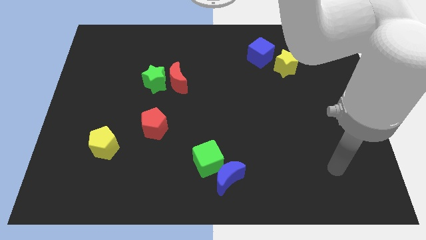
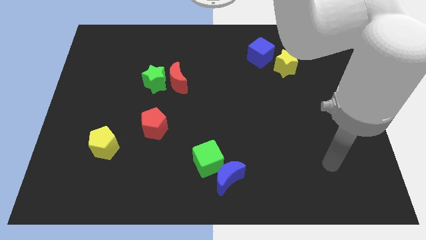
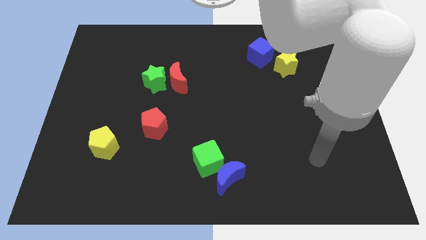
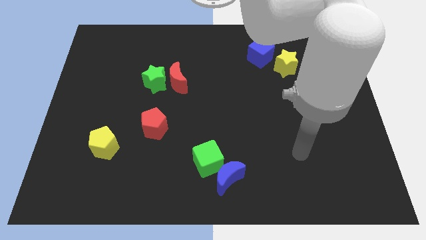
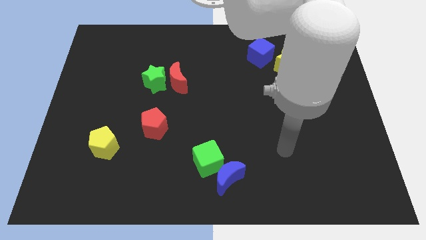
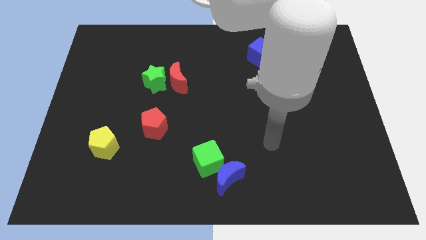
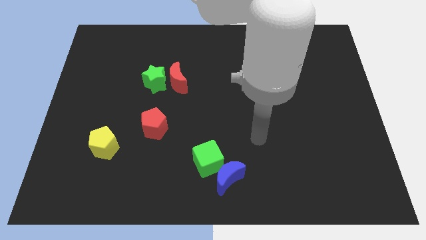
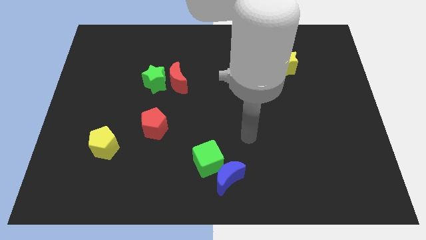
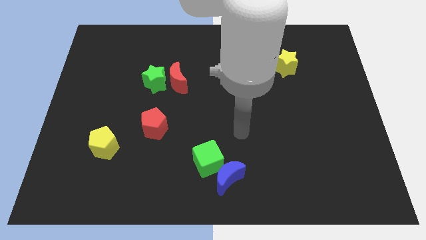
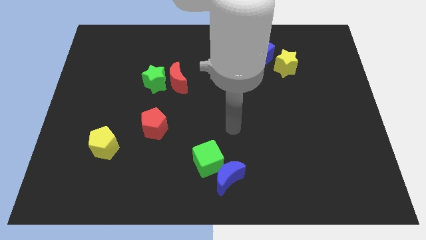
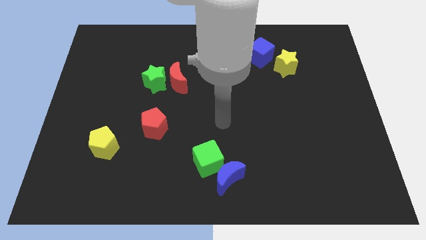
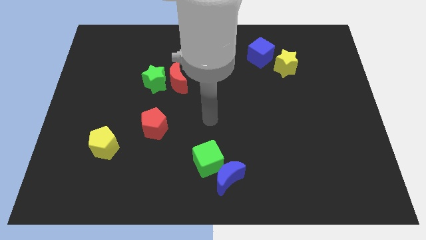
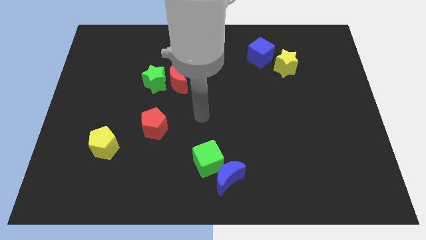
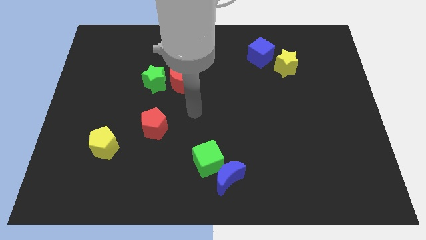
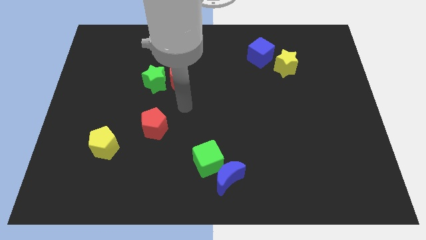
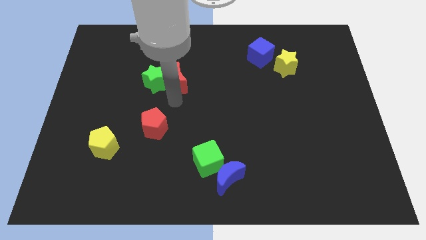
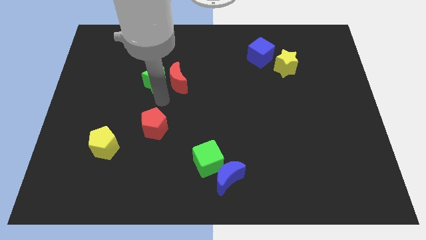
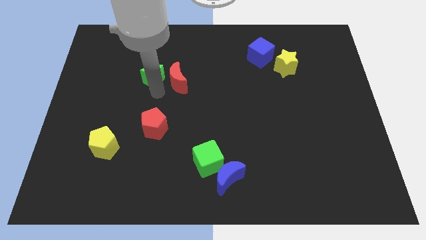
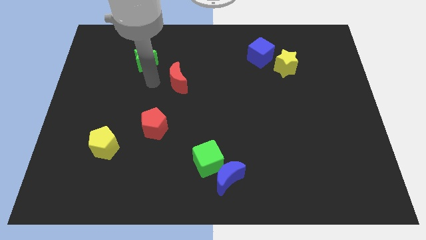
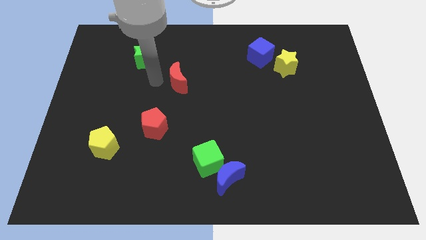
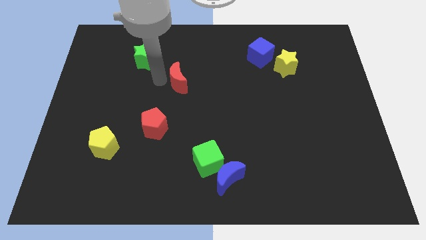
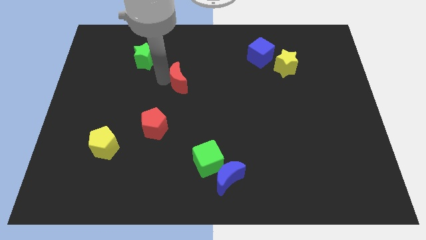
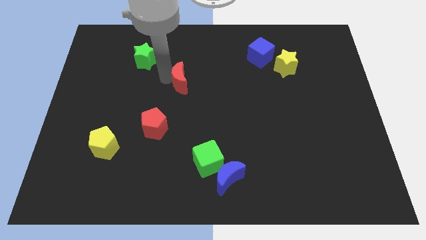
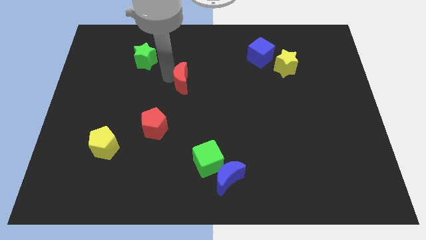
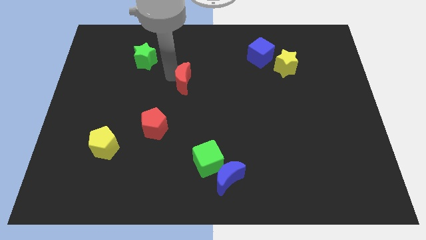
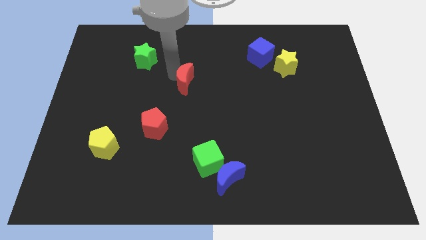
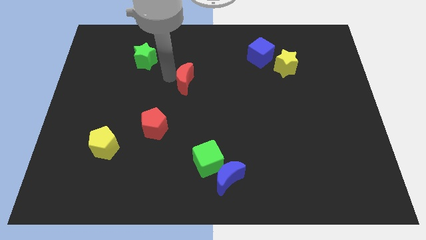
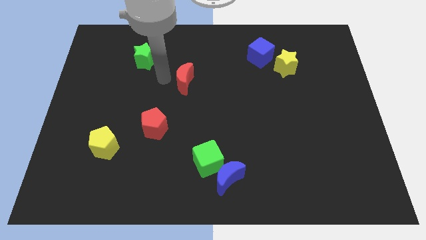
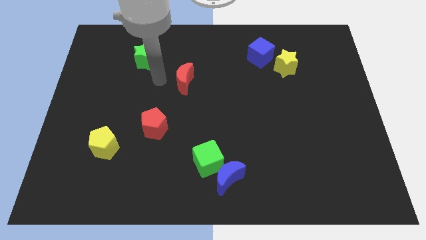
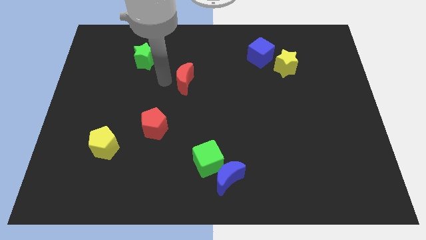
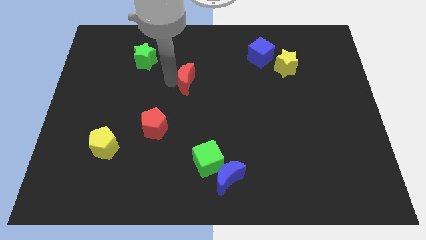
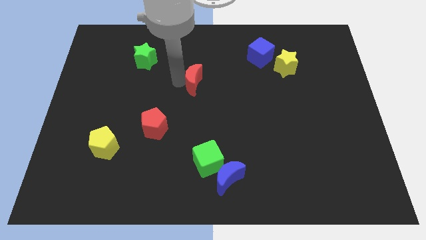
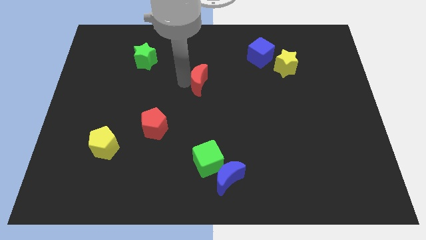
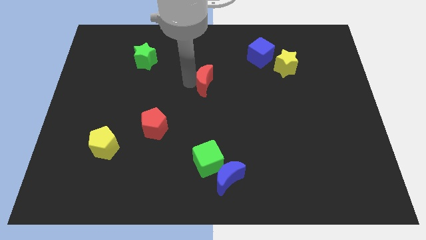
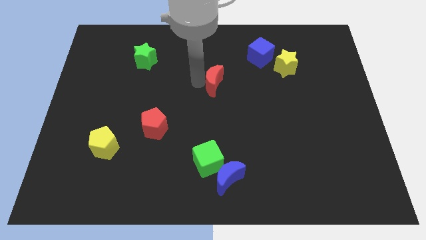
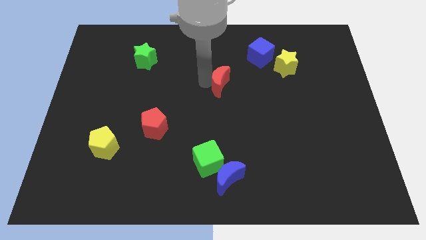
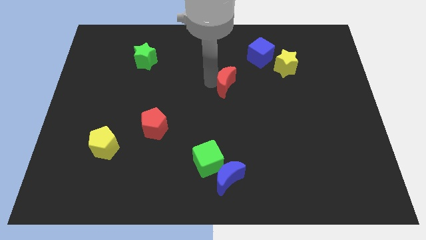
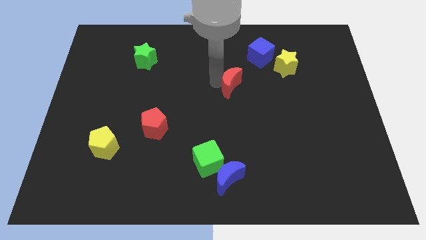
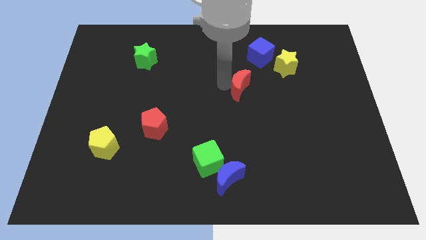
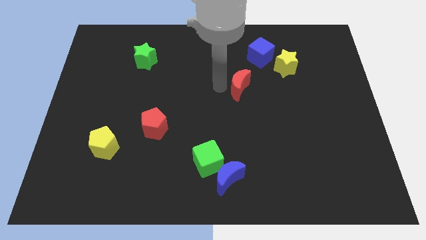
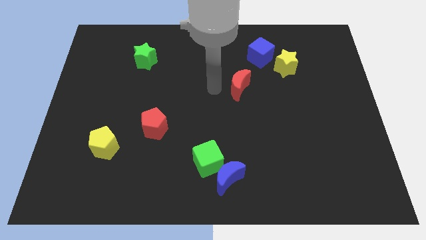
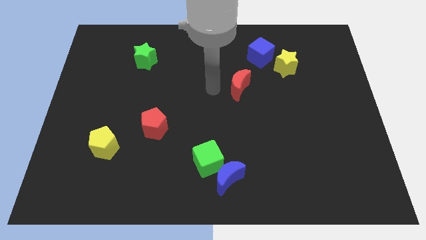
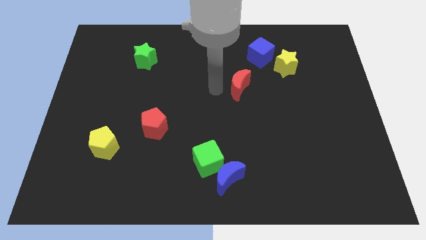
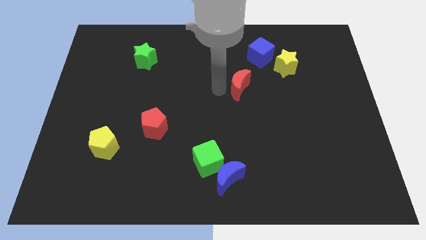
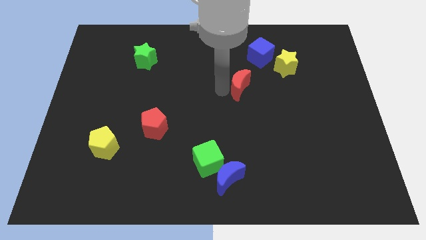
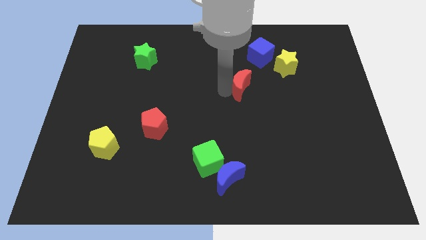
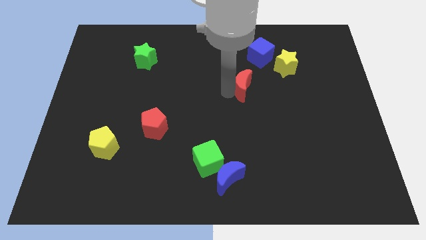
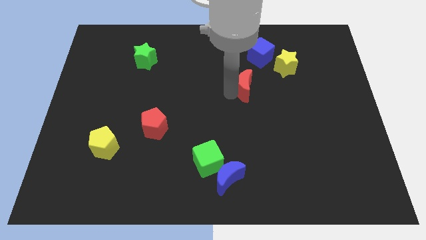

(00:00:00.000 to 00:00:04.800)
put the red moon below the blue cube

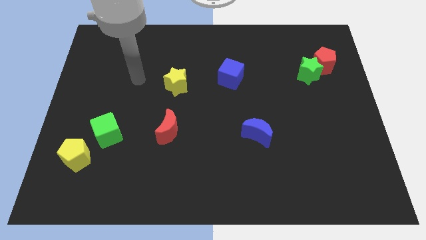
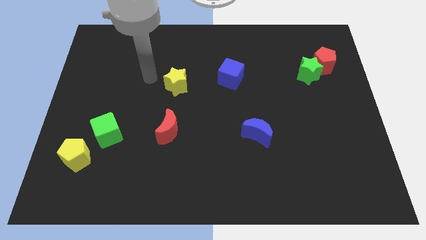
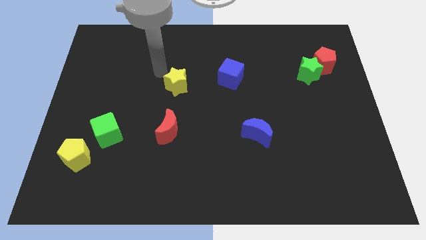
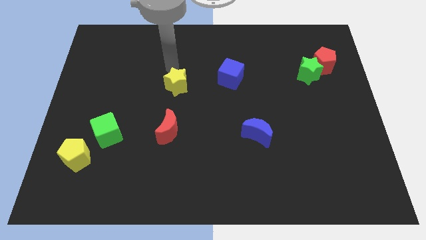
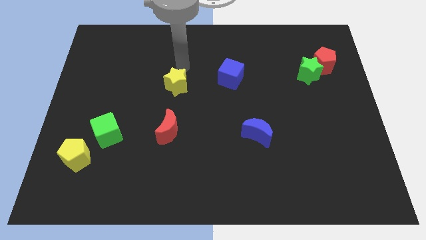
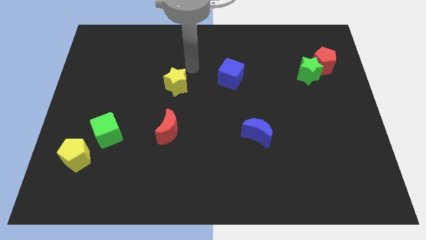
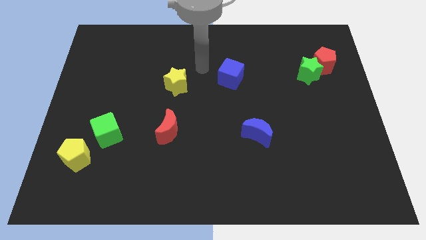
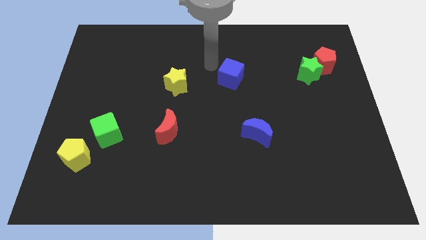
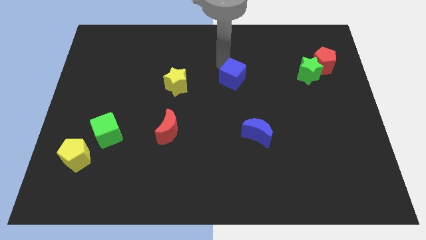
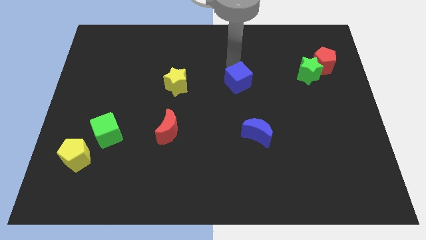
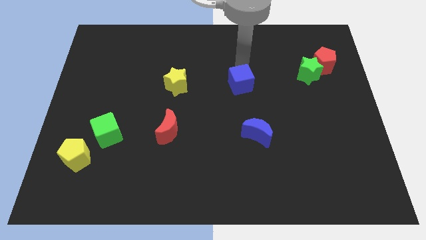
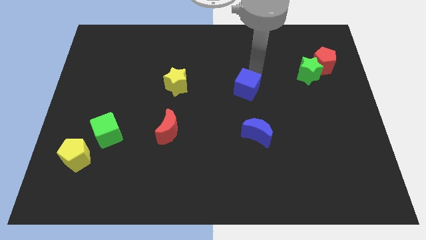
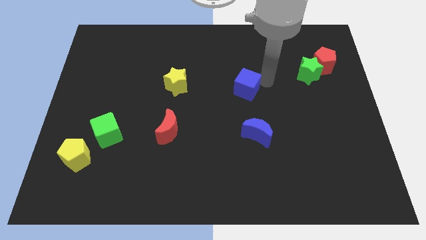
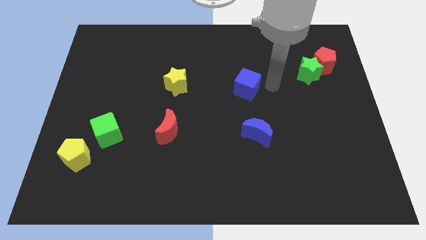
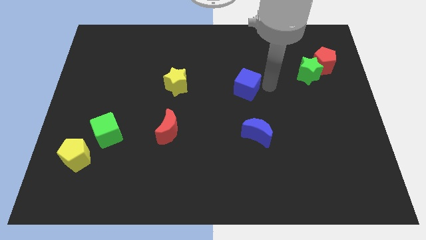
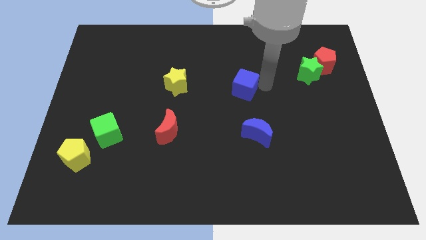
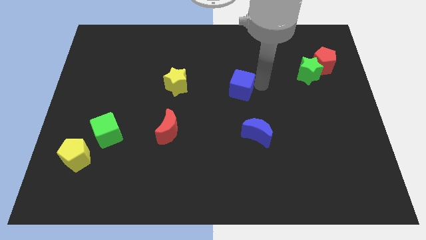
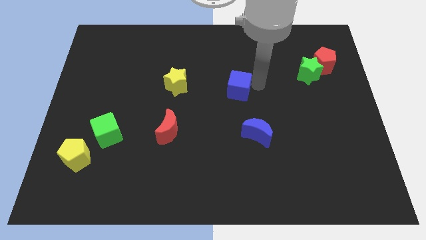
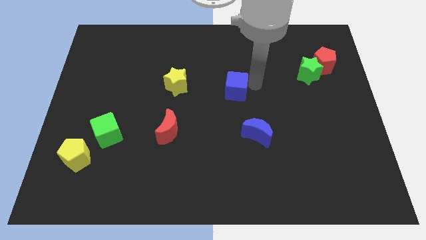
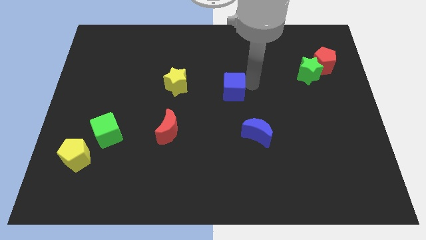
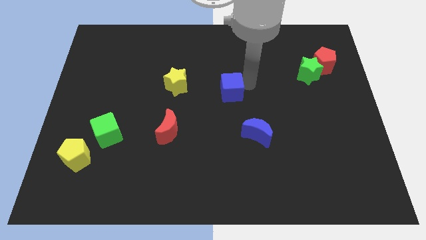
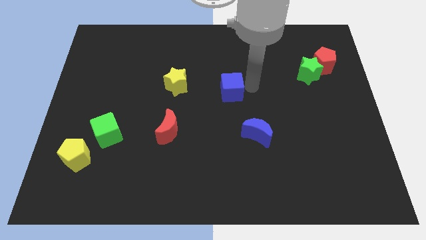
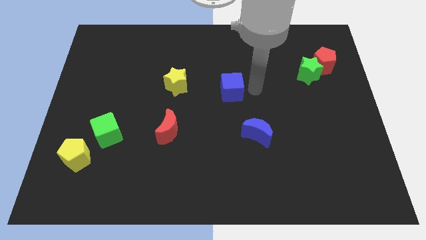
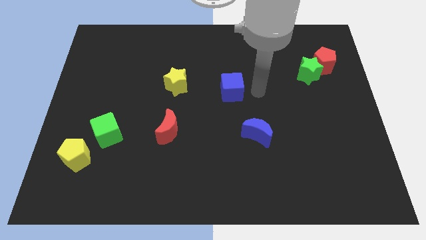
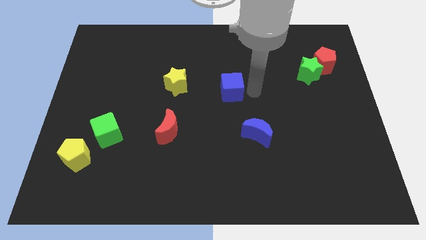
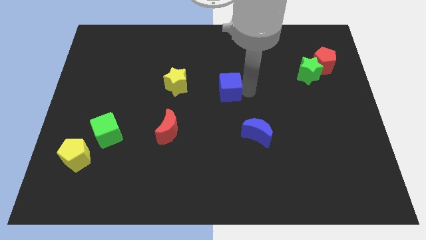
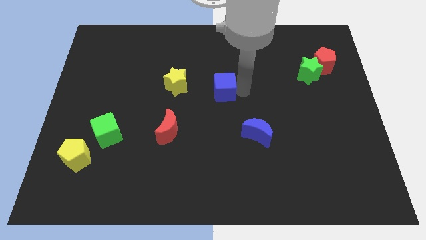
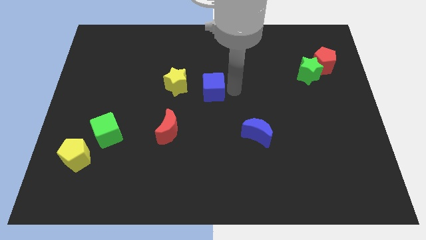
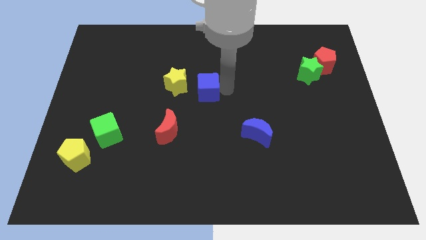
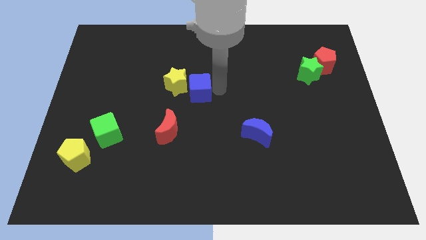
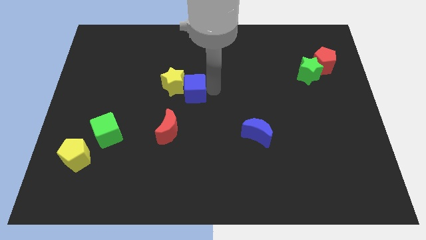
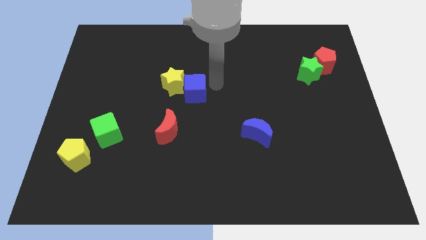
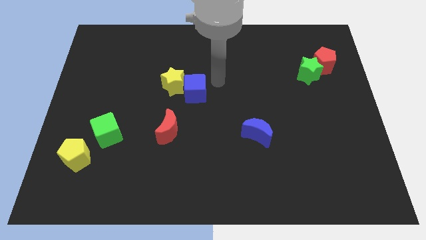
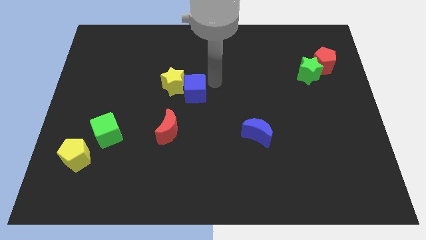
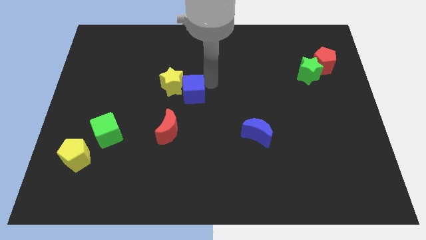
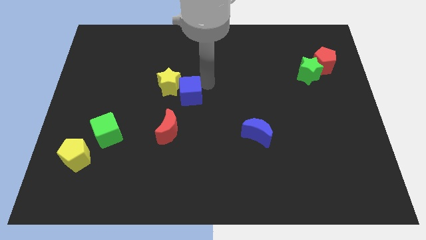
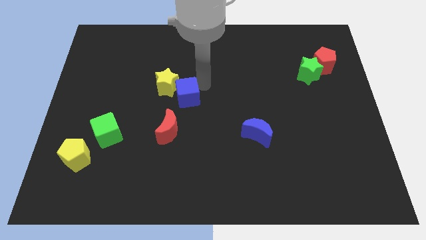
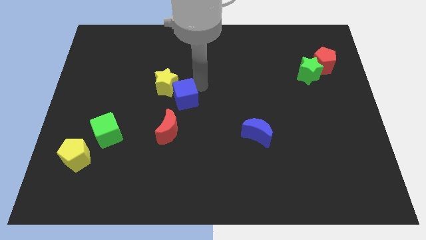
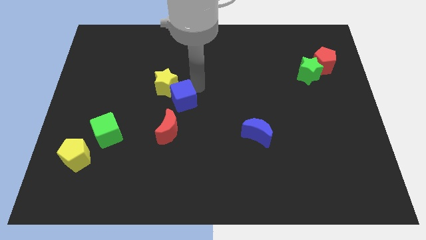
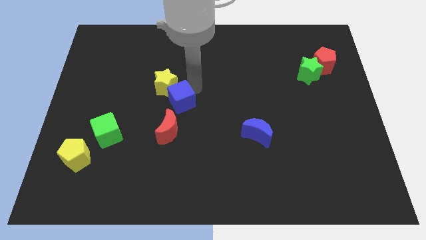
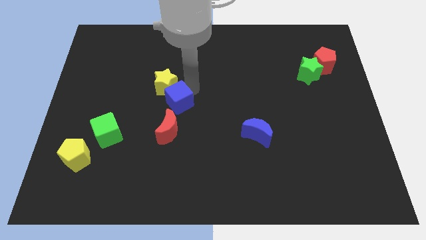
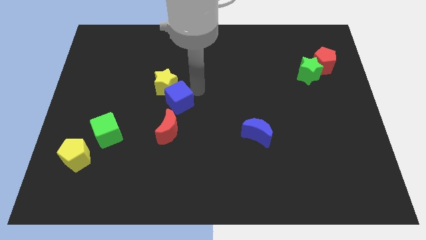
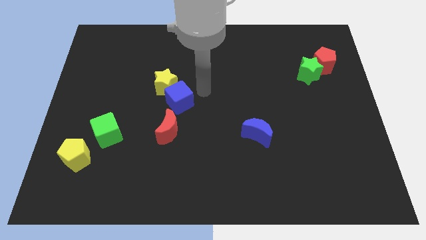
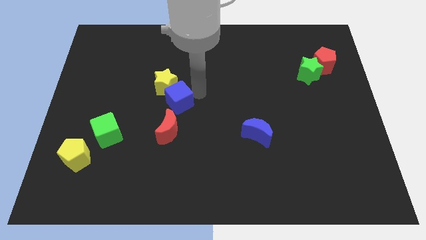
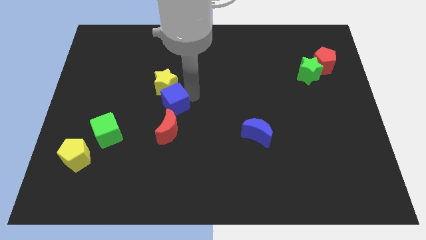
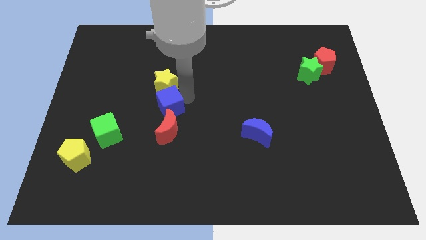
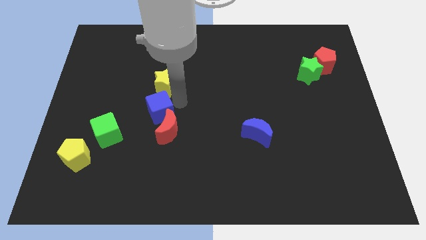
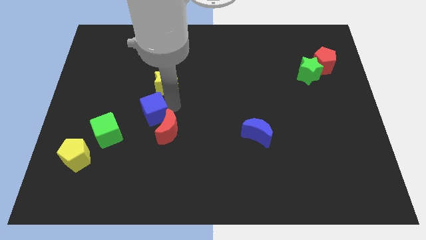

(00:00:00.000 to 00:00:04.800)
put the blue cube to the top right side of the green cube
